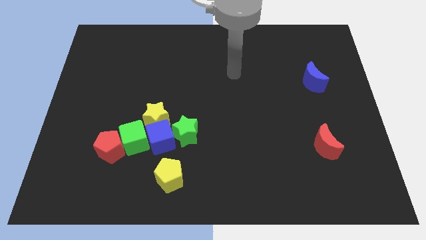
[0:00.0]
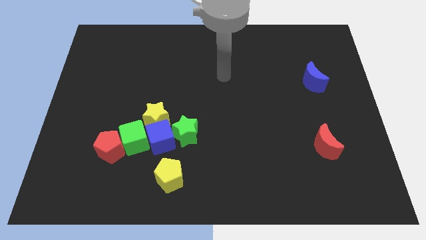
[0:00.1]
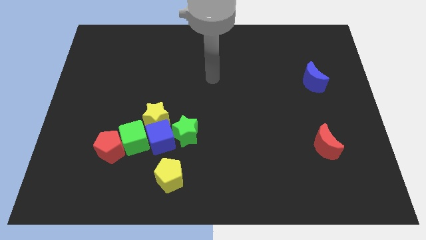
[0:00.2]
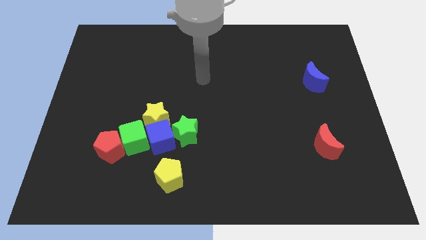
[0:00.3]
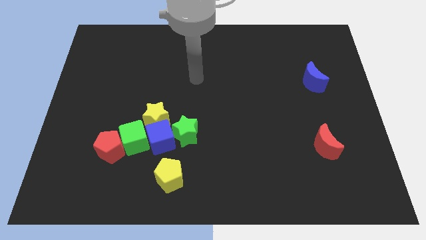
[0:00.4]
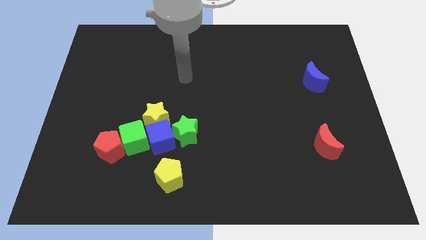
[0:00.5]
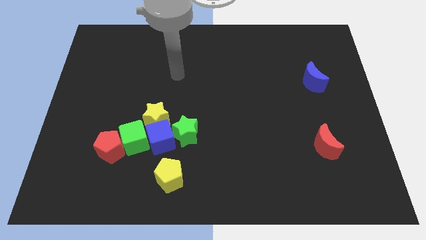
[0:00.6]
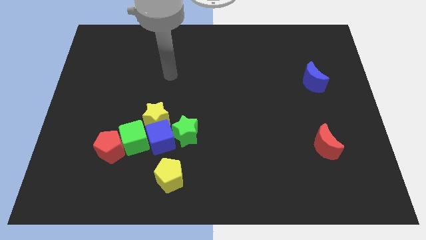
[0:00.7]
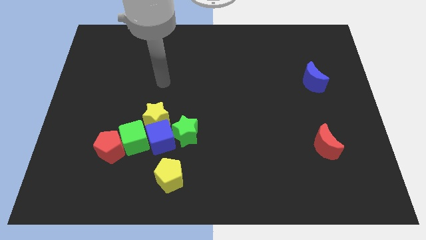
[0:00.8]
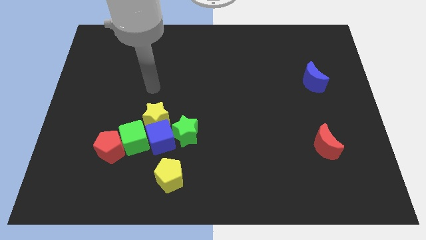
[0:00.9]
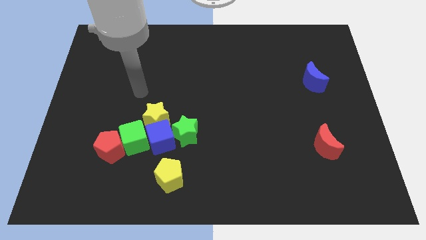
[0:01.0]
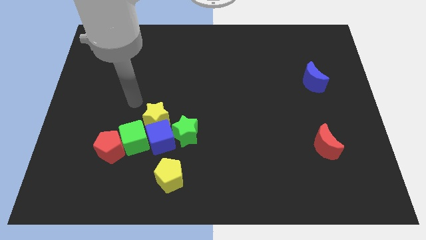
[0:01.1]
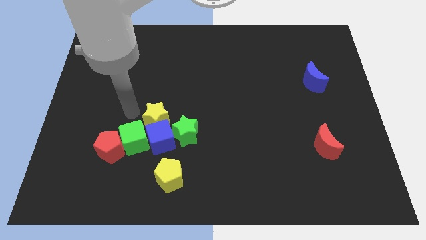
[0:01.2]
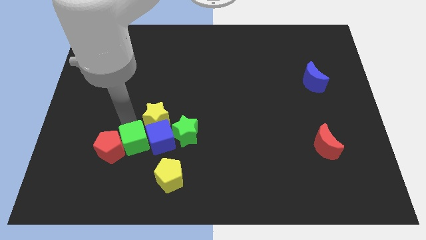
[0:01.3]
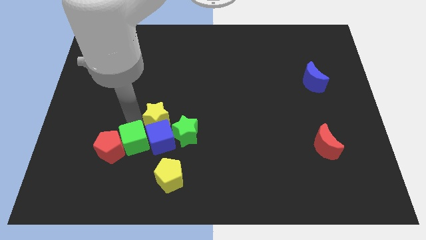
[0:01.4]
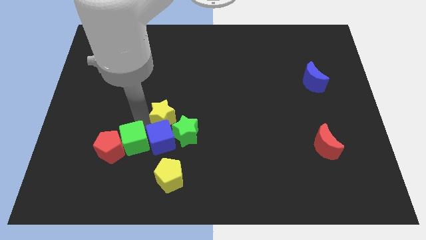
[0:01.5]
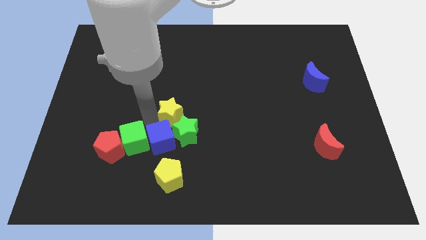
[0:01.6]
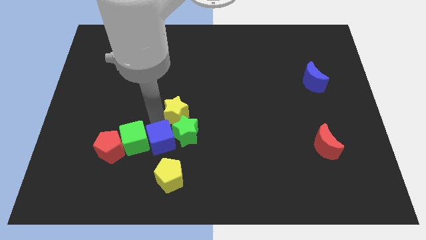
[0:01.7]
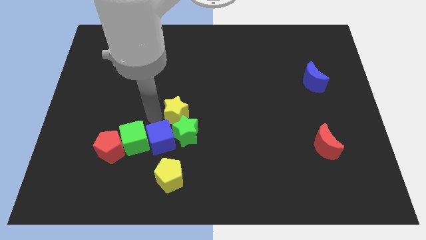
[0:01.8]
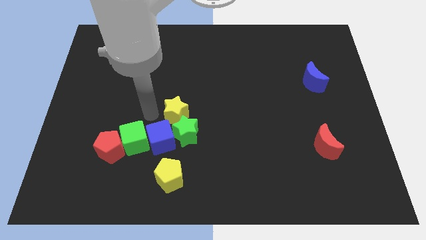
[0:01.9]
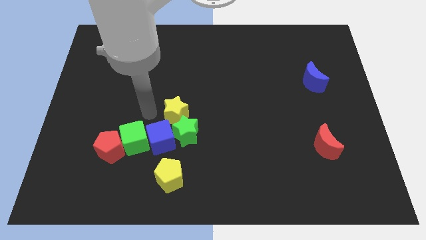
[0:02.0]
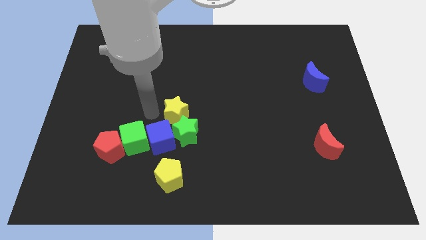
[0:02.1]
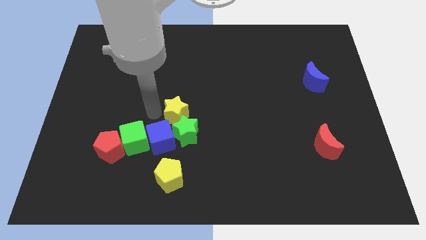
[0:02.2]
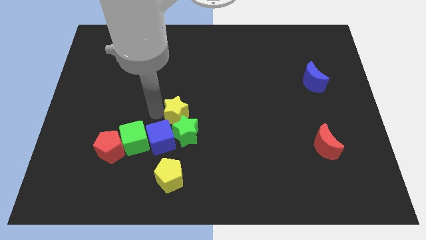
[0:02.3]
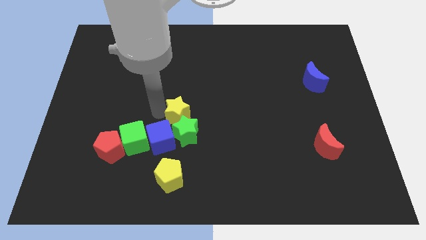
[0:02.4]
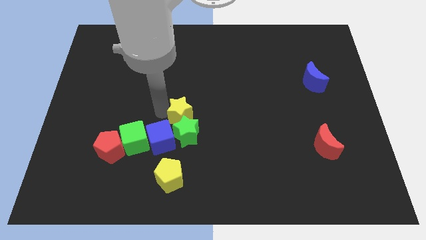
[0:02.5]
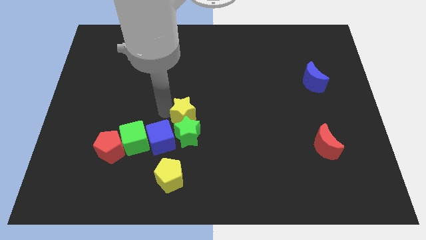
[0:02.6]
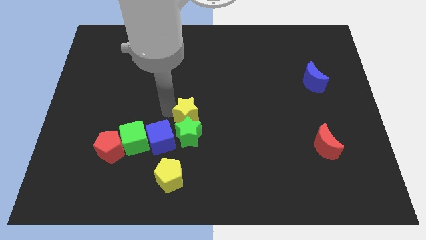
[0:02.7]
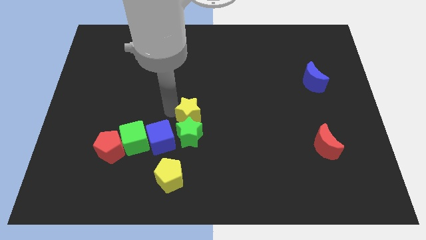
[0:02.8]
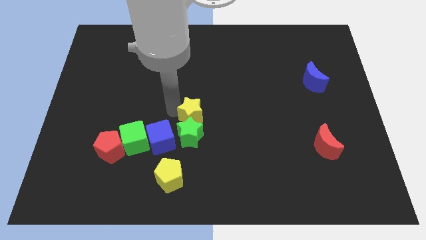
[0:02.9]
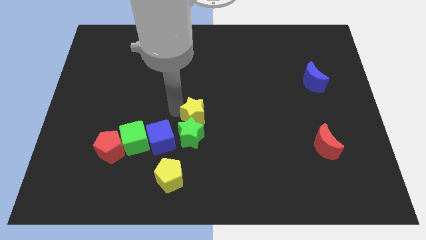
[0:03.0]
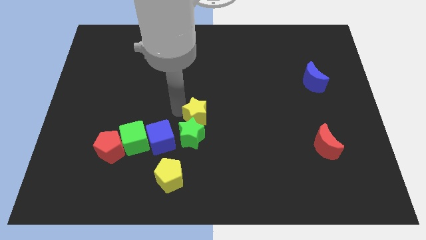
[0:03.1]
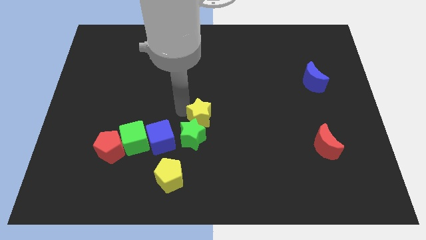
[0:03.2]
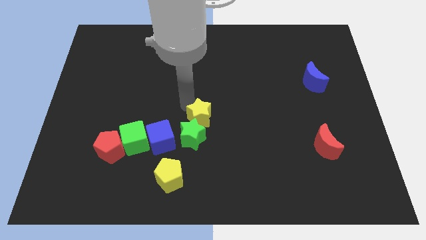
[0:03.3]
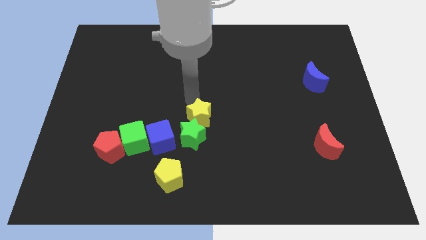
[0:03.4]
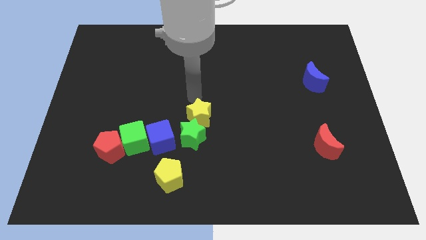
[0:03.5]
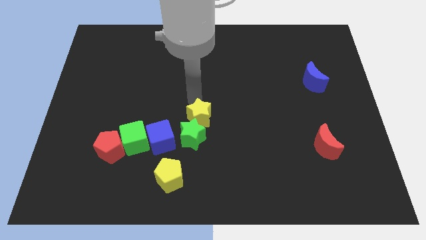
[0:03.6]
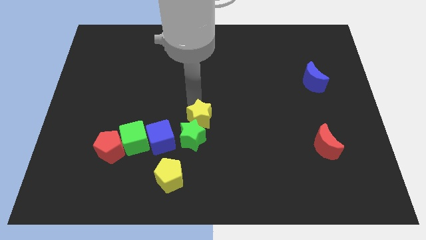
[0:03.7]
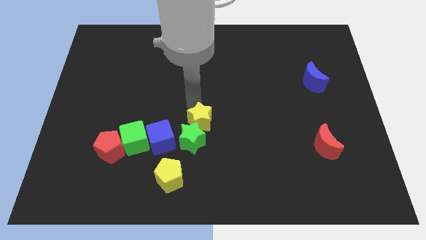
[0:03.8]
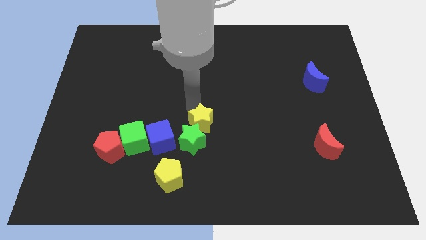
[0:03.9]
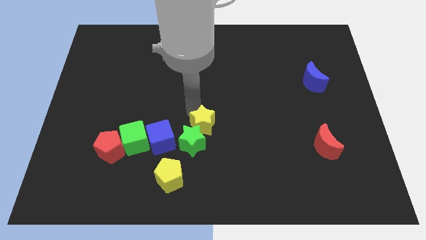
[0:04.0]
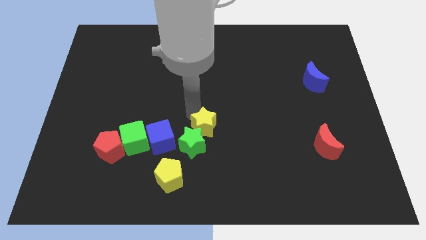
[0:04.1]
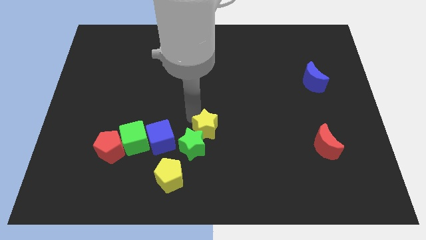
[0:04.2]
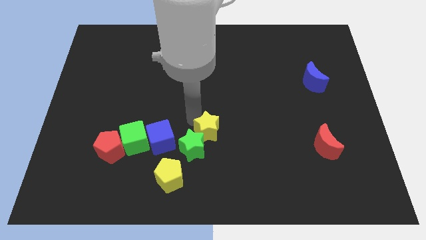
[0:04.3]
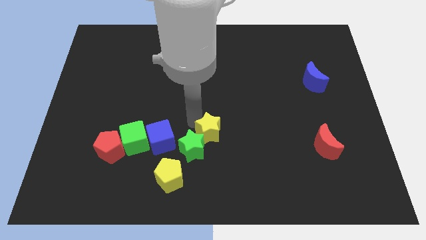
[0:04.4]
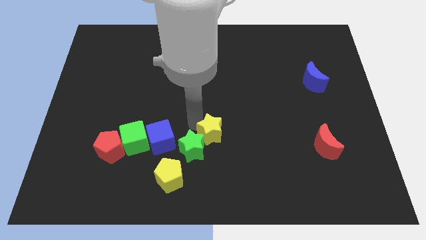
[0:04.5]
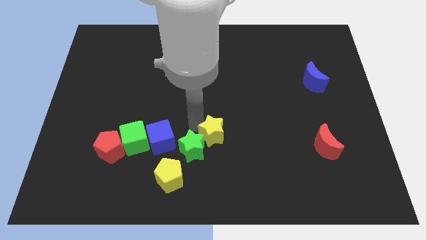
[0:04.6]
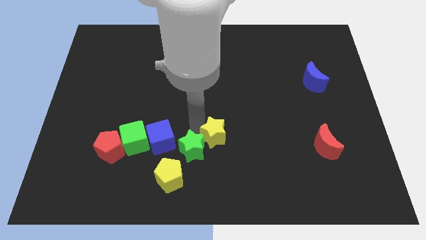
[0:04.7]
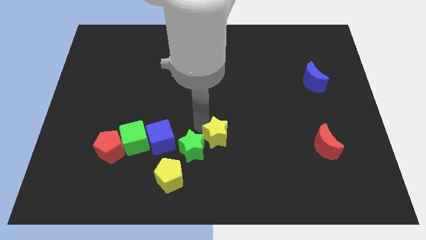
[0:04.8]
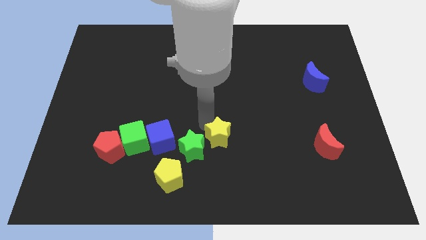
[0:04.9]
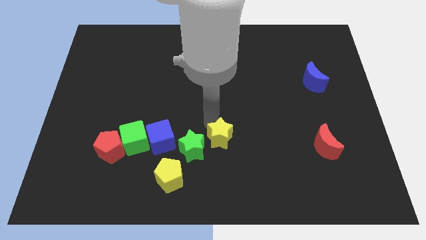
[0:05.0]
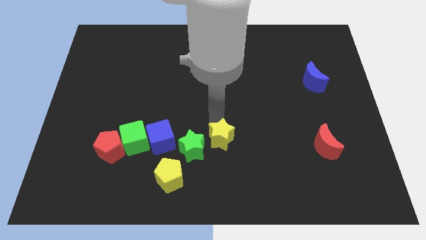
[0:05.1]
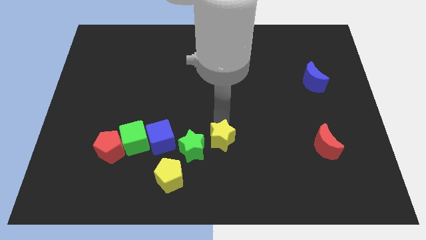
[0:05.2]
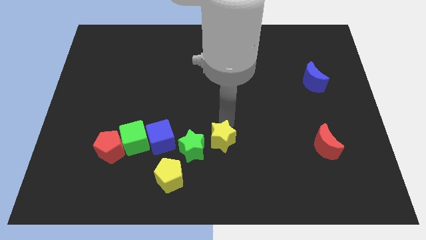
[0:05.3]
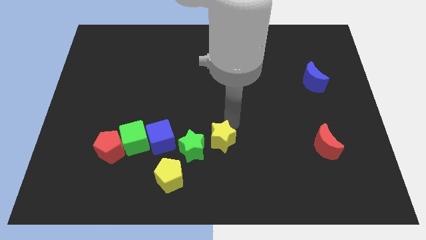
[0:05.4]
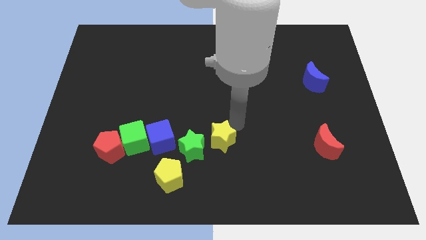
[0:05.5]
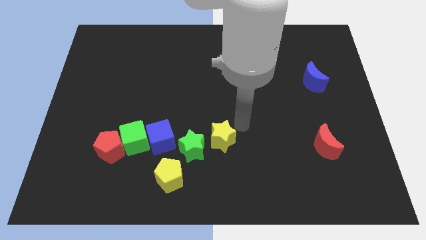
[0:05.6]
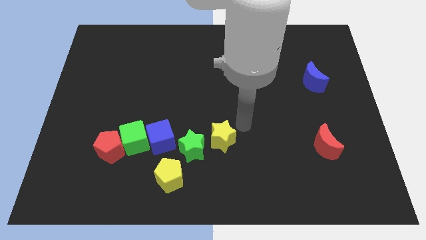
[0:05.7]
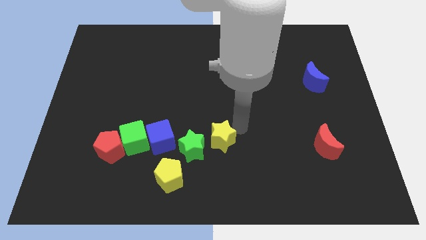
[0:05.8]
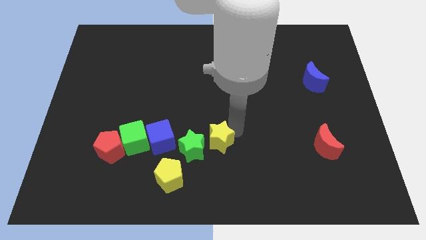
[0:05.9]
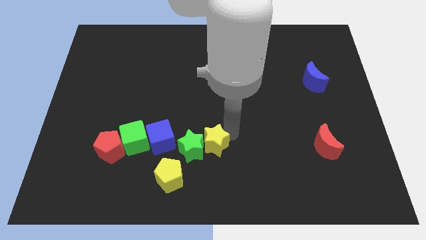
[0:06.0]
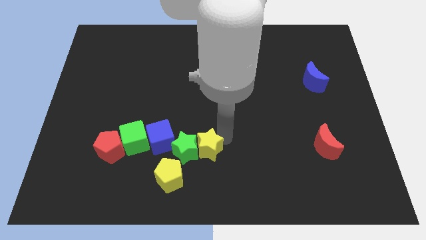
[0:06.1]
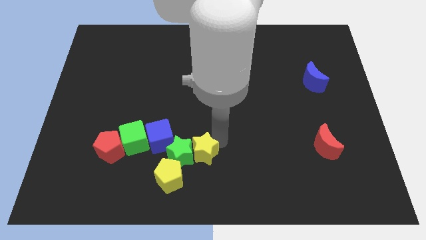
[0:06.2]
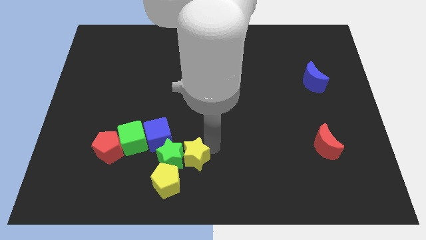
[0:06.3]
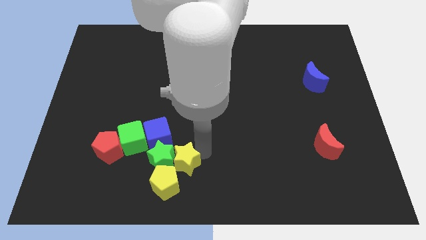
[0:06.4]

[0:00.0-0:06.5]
push the yellow star close to the yellow pentagon

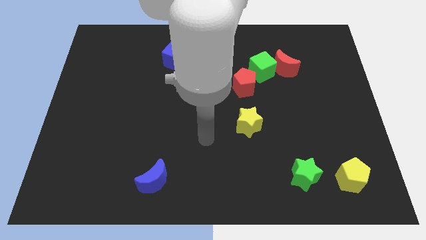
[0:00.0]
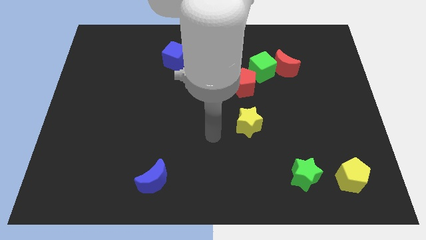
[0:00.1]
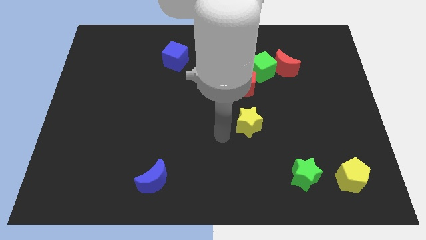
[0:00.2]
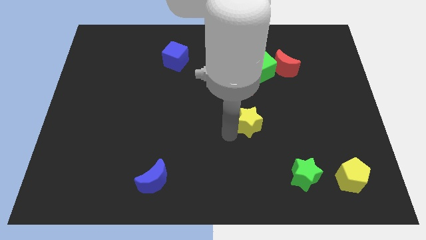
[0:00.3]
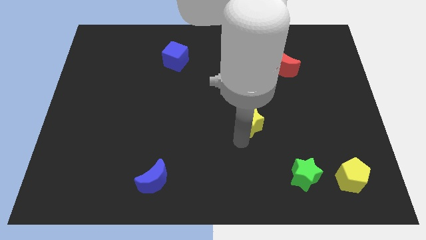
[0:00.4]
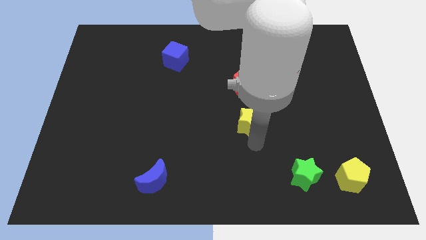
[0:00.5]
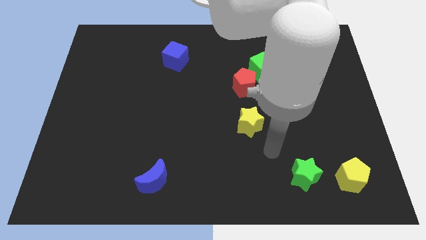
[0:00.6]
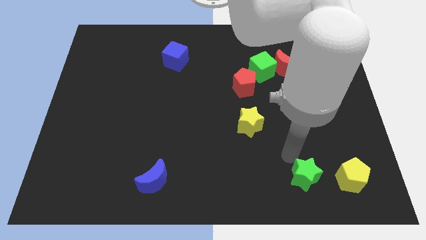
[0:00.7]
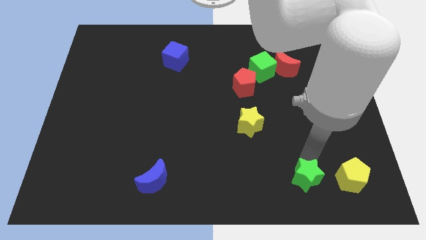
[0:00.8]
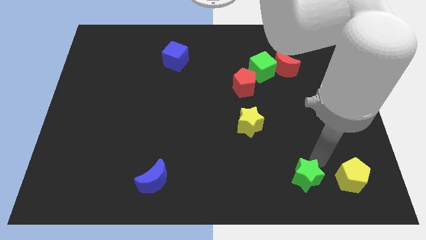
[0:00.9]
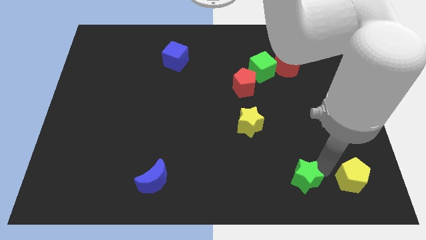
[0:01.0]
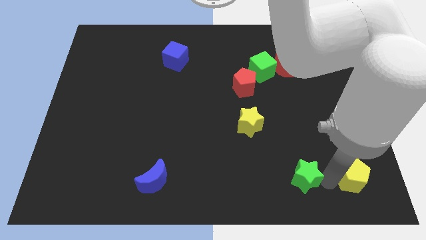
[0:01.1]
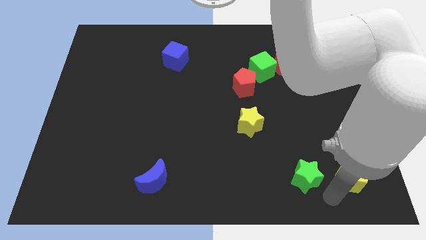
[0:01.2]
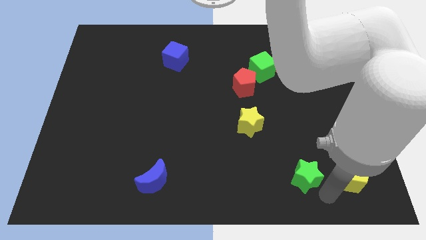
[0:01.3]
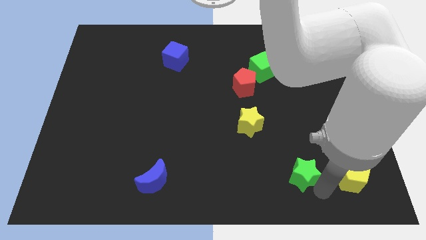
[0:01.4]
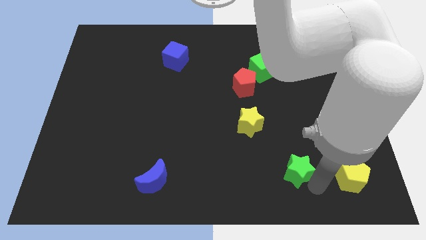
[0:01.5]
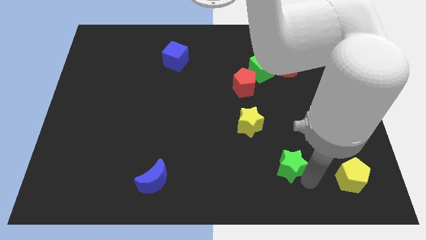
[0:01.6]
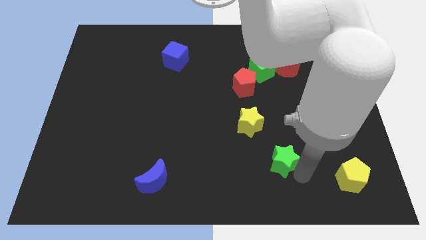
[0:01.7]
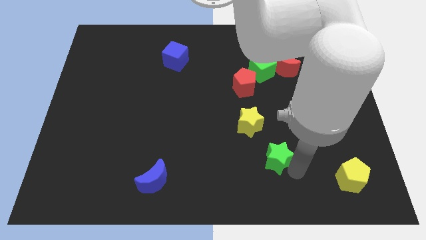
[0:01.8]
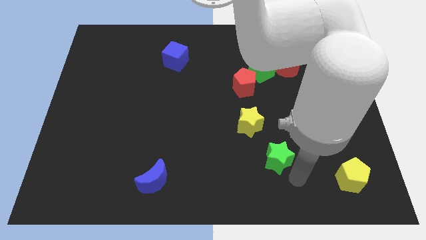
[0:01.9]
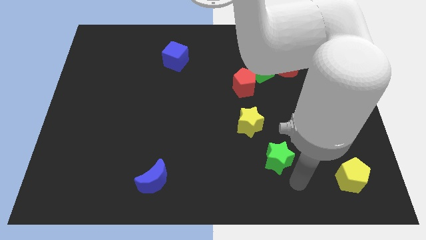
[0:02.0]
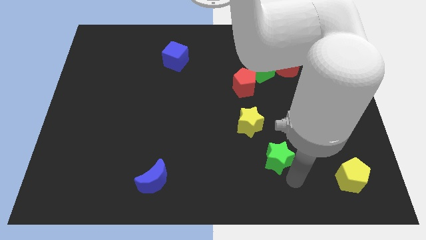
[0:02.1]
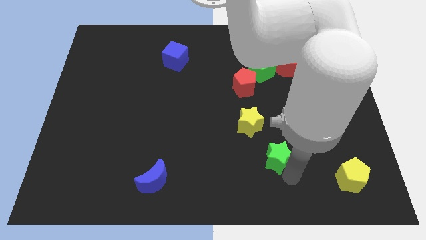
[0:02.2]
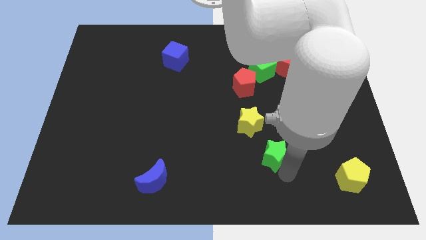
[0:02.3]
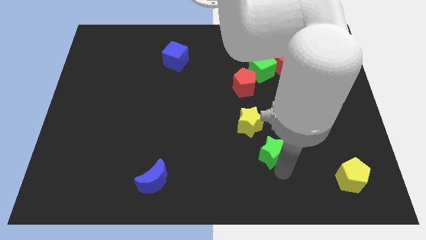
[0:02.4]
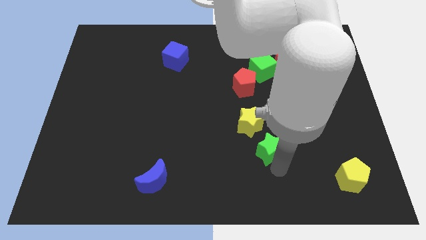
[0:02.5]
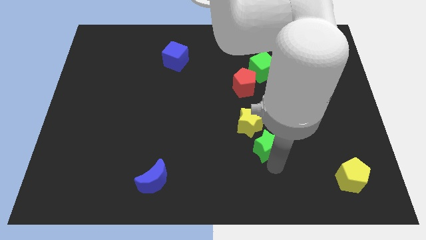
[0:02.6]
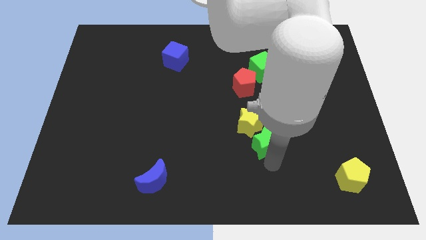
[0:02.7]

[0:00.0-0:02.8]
slide the green star to the yellow star
